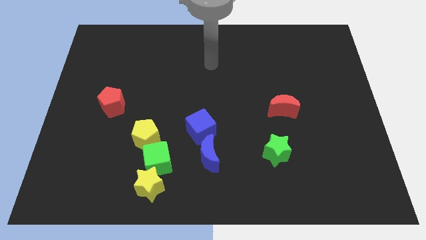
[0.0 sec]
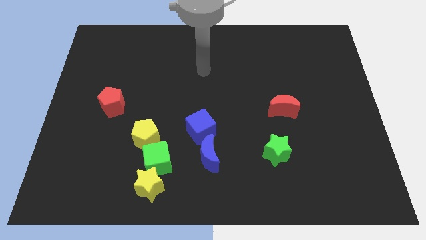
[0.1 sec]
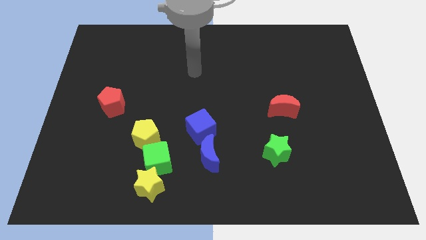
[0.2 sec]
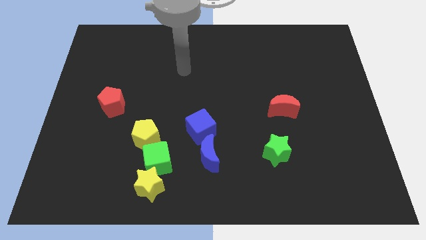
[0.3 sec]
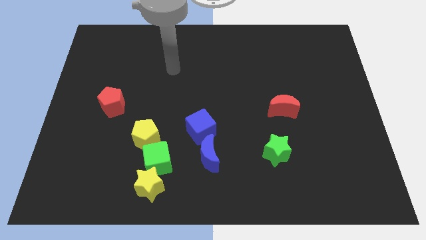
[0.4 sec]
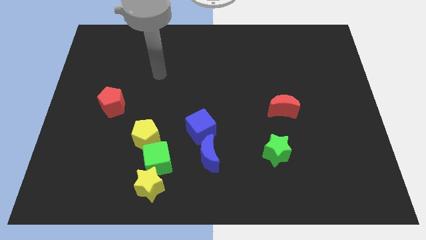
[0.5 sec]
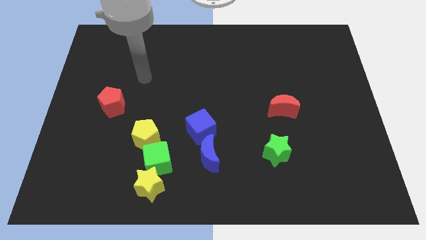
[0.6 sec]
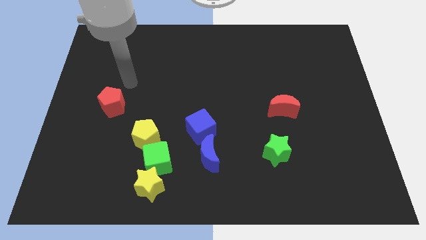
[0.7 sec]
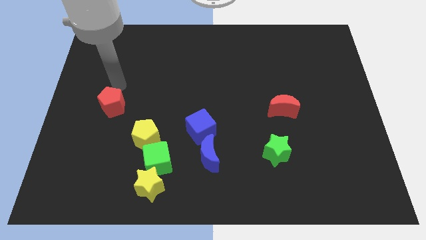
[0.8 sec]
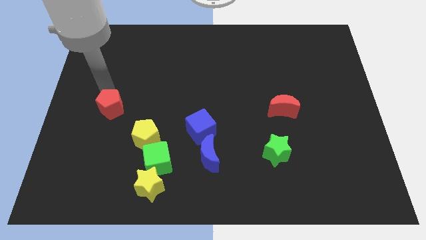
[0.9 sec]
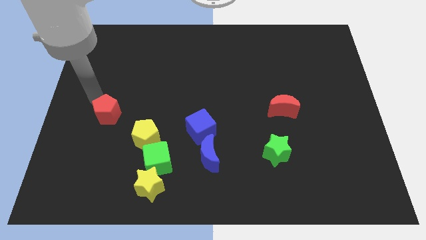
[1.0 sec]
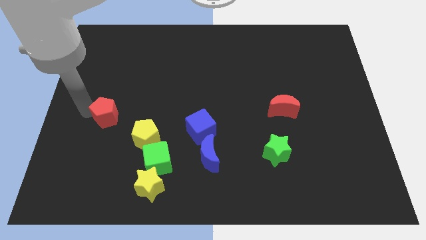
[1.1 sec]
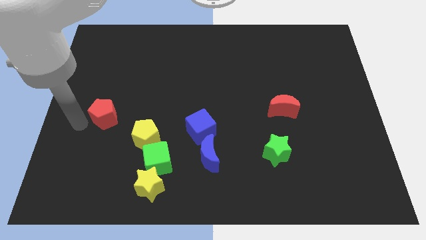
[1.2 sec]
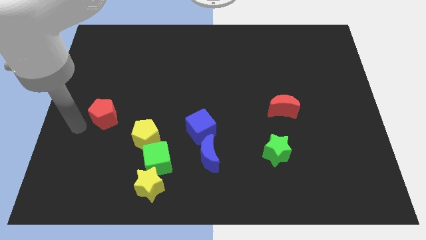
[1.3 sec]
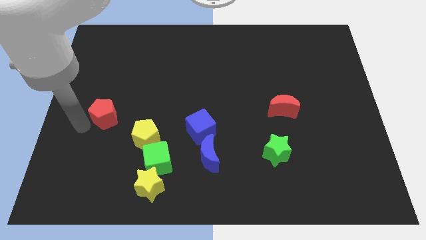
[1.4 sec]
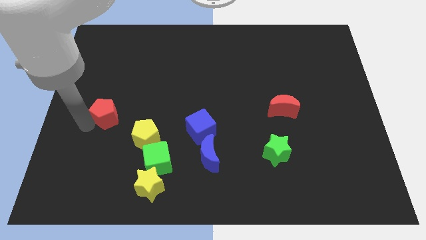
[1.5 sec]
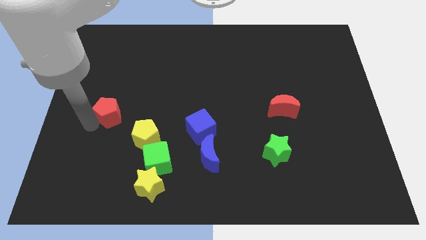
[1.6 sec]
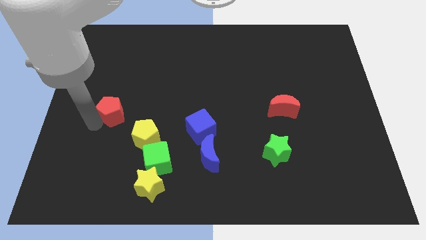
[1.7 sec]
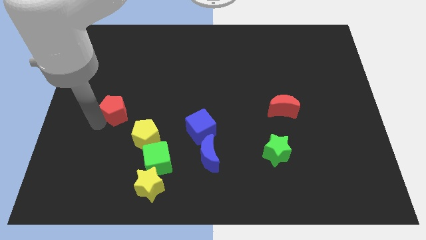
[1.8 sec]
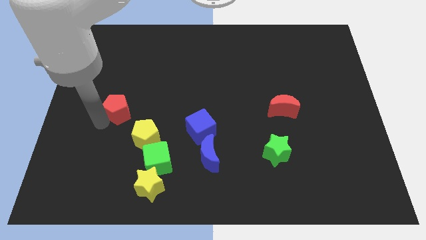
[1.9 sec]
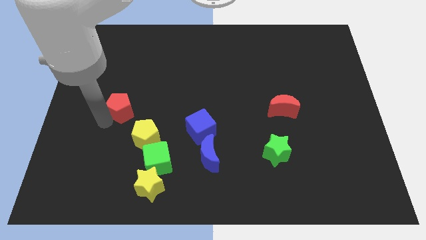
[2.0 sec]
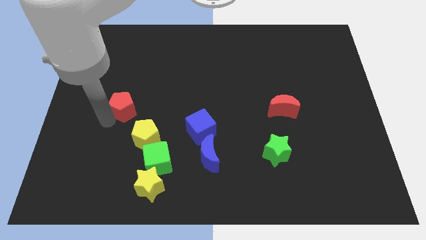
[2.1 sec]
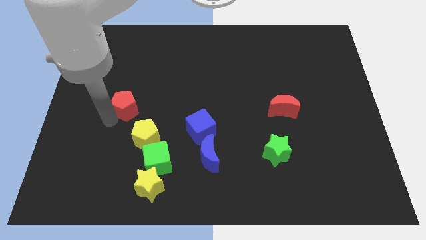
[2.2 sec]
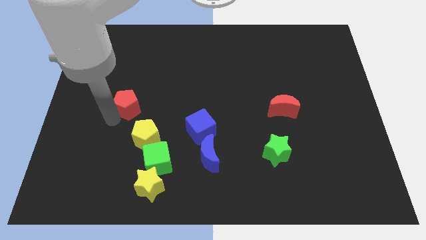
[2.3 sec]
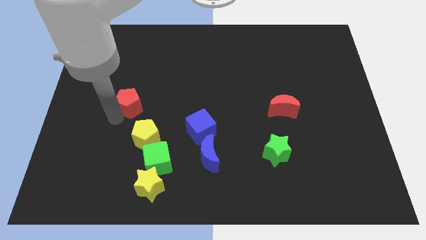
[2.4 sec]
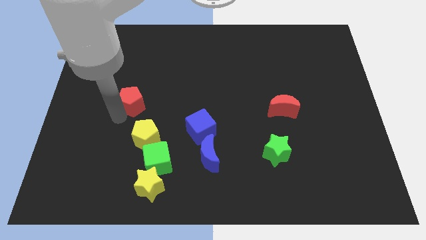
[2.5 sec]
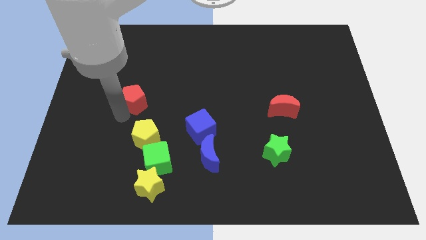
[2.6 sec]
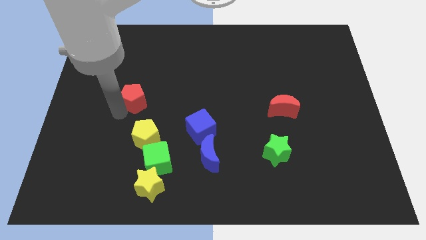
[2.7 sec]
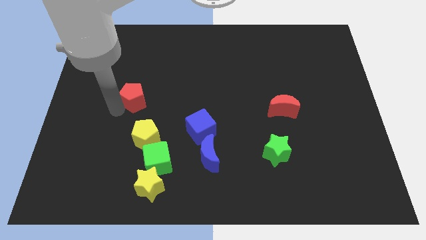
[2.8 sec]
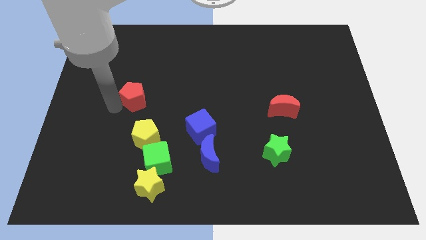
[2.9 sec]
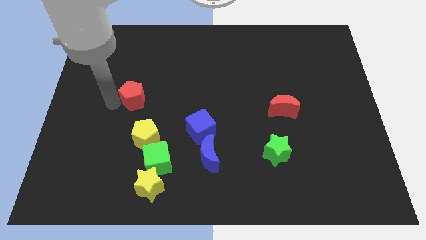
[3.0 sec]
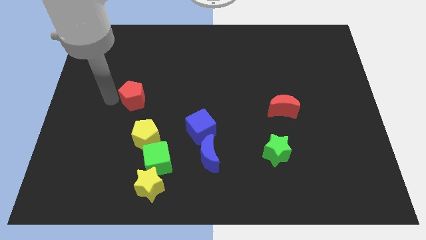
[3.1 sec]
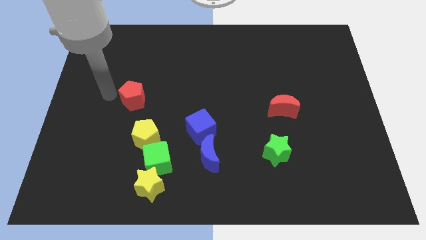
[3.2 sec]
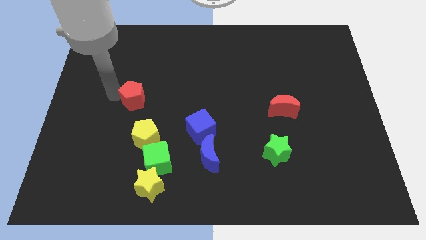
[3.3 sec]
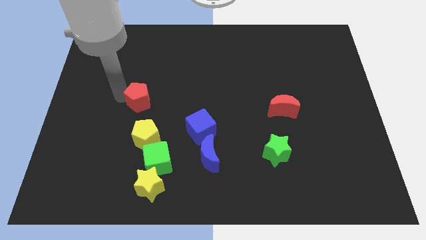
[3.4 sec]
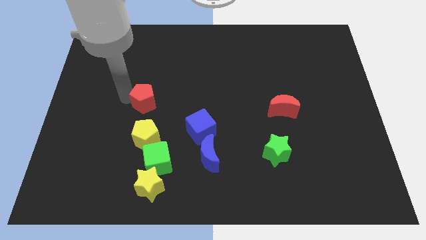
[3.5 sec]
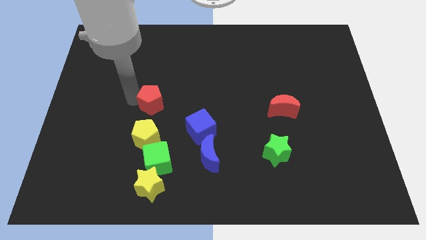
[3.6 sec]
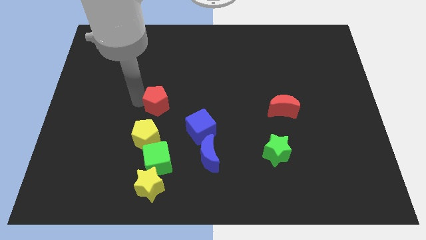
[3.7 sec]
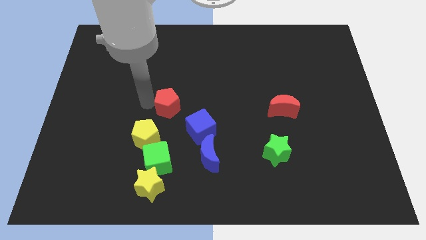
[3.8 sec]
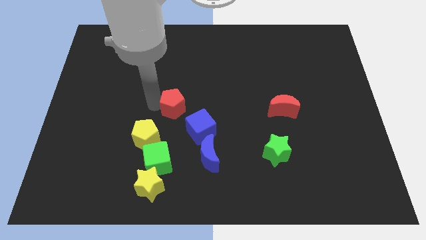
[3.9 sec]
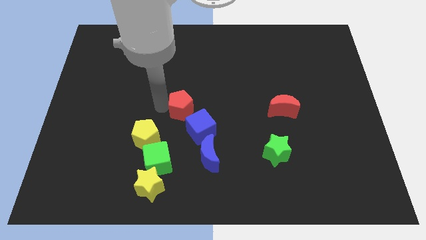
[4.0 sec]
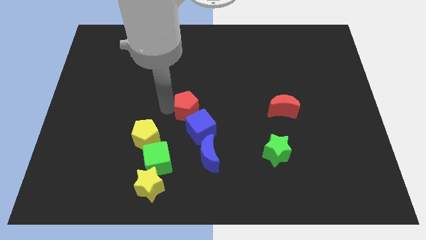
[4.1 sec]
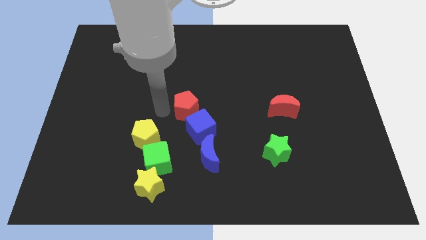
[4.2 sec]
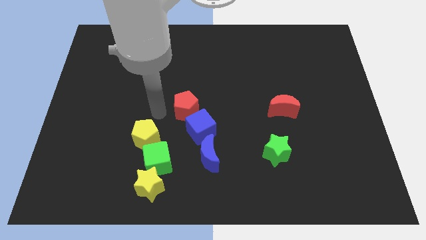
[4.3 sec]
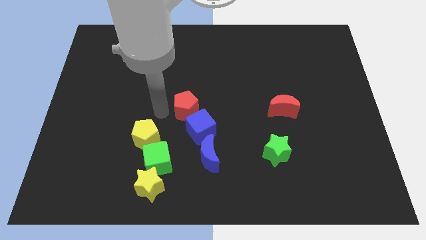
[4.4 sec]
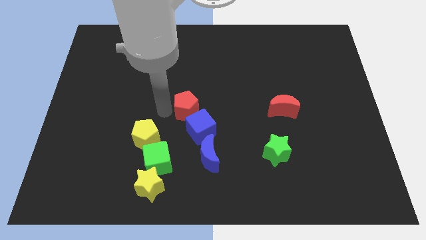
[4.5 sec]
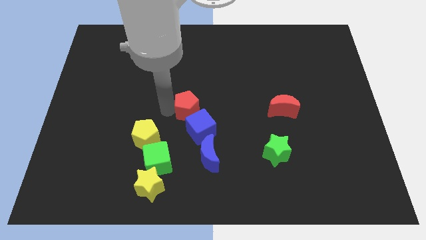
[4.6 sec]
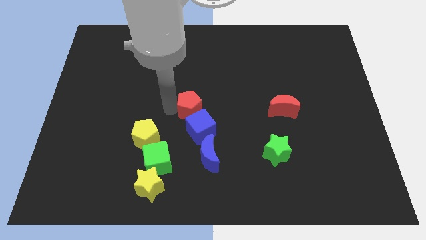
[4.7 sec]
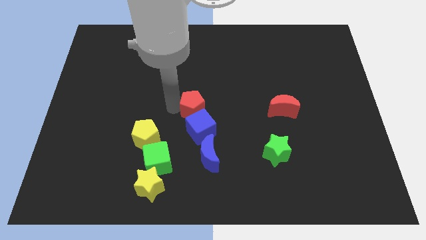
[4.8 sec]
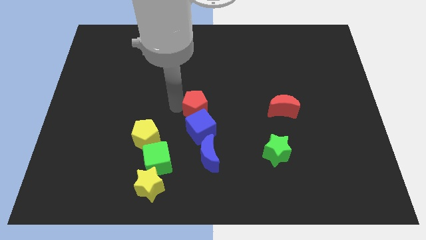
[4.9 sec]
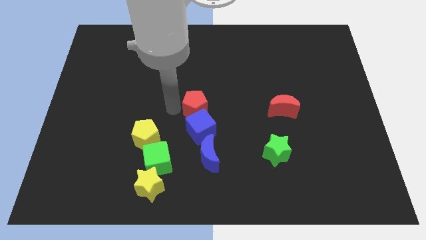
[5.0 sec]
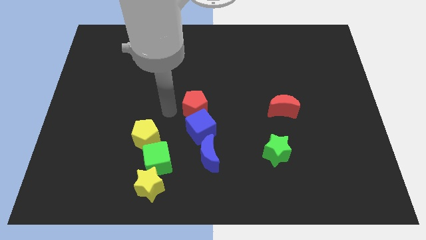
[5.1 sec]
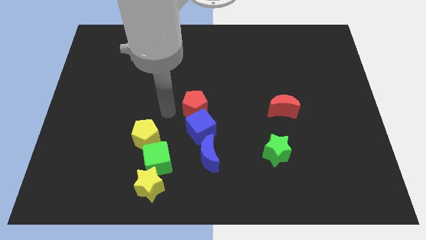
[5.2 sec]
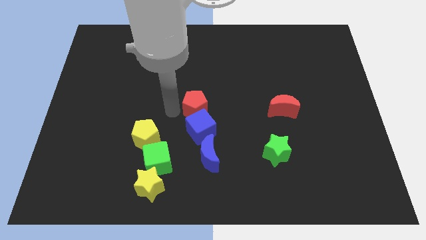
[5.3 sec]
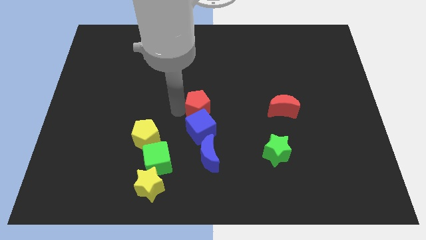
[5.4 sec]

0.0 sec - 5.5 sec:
move the red pentagon right

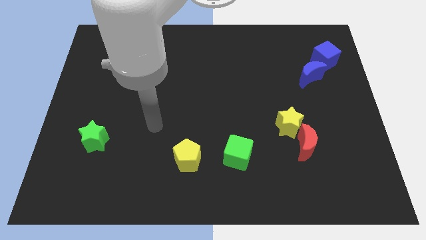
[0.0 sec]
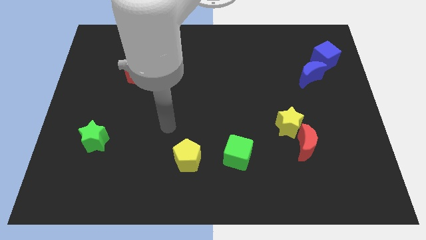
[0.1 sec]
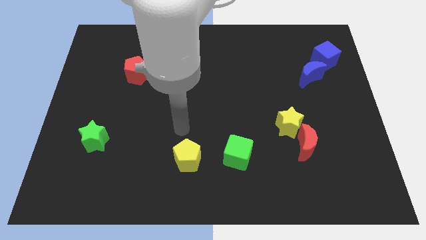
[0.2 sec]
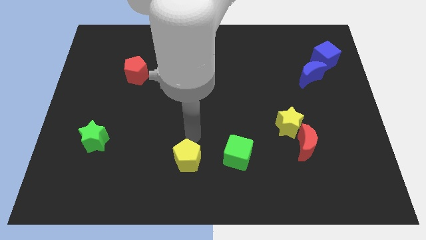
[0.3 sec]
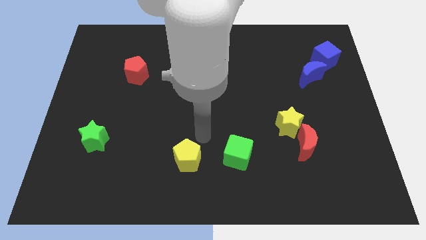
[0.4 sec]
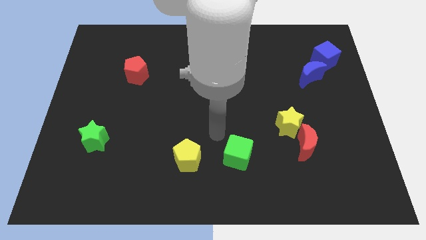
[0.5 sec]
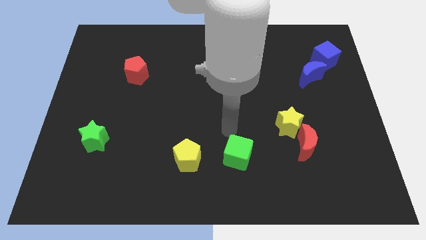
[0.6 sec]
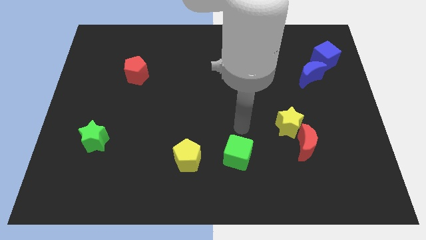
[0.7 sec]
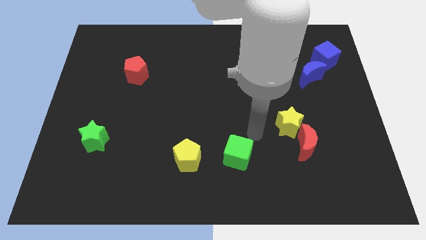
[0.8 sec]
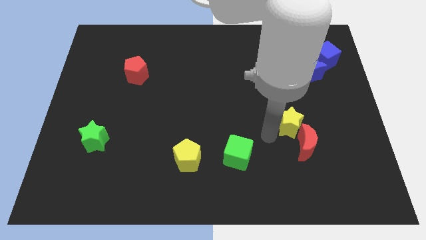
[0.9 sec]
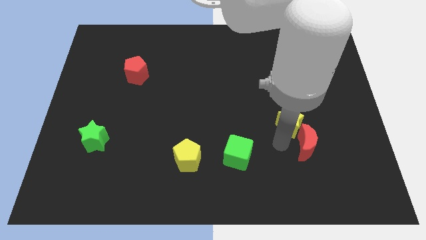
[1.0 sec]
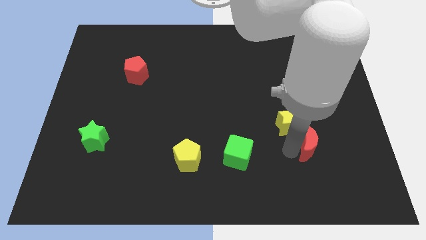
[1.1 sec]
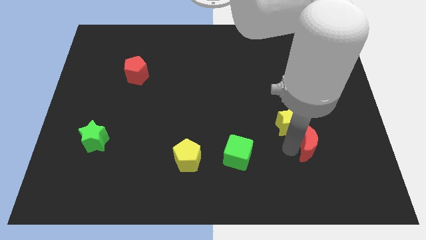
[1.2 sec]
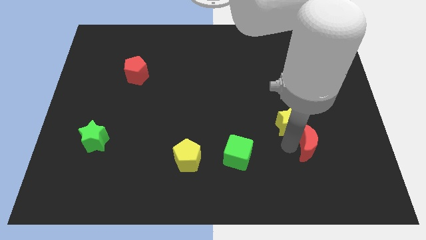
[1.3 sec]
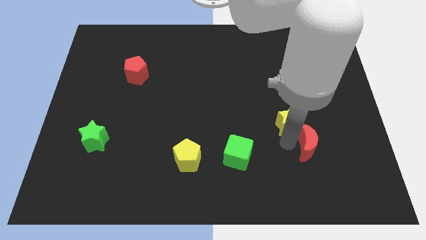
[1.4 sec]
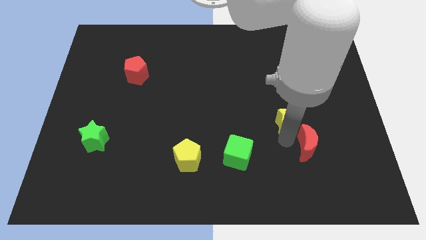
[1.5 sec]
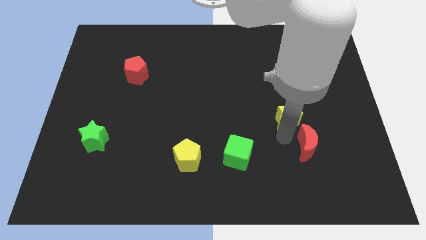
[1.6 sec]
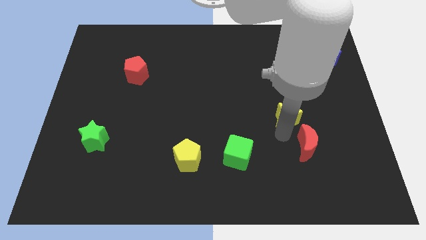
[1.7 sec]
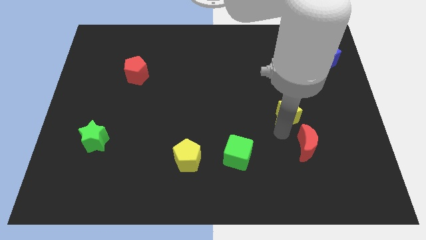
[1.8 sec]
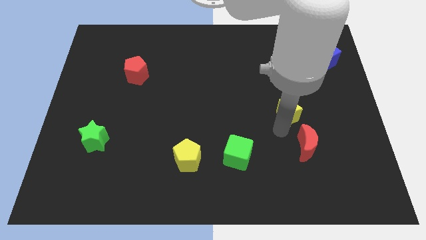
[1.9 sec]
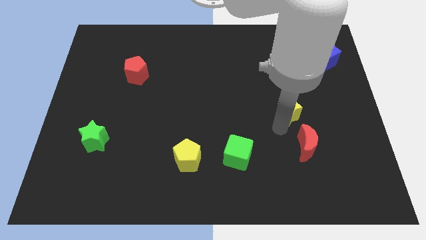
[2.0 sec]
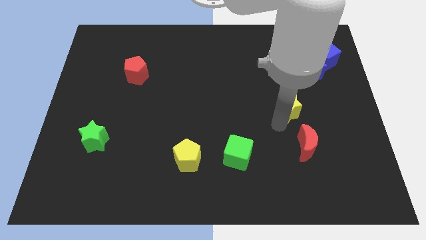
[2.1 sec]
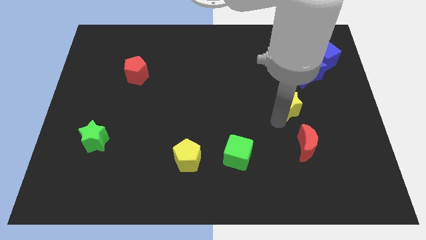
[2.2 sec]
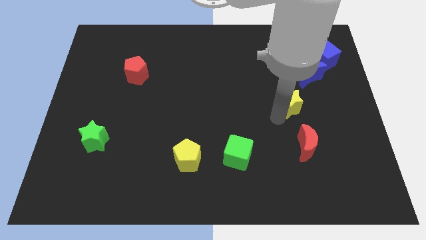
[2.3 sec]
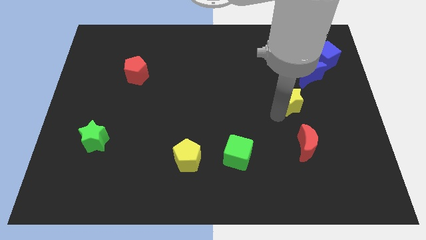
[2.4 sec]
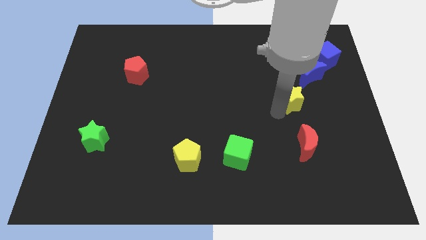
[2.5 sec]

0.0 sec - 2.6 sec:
slightly move the yellow star up
